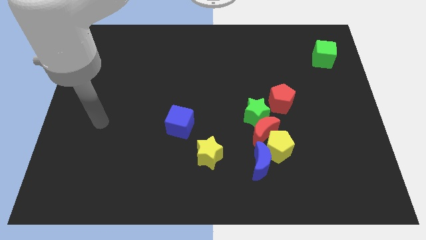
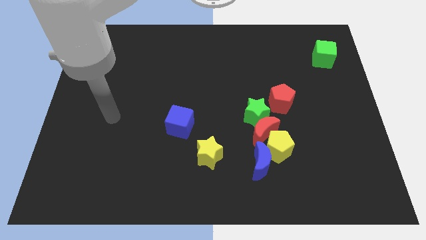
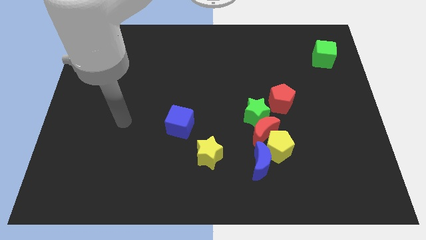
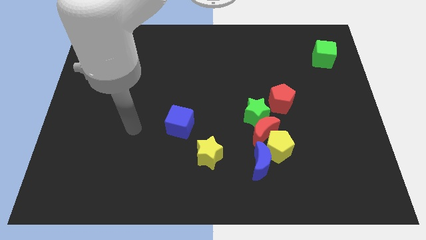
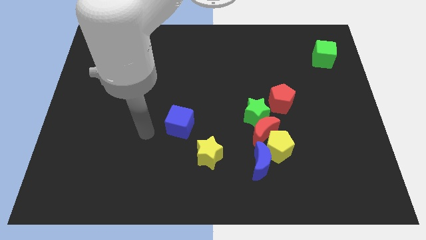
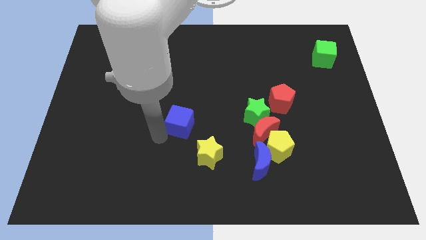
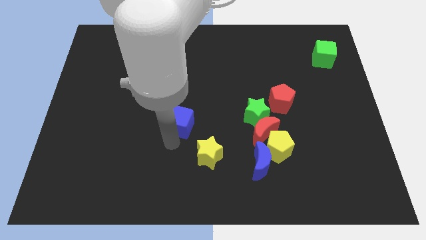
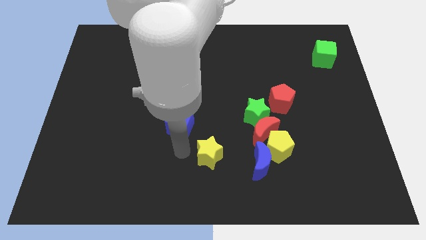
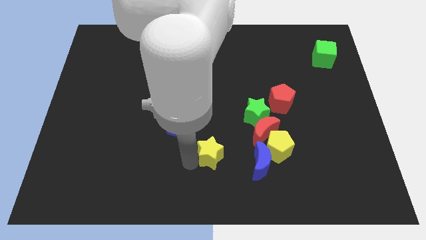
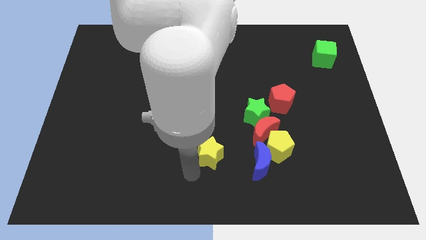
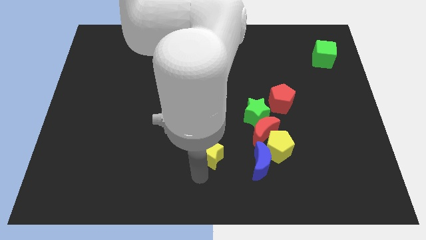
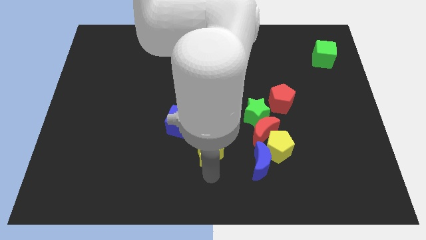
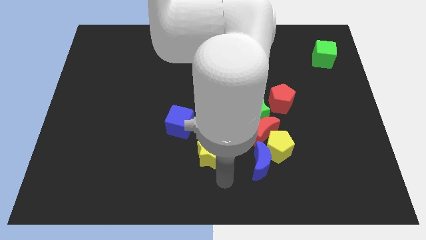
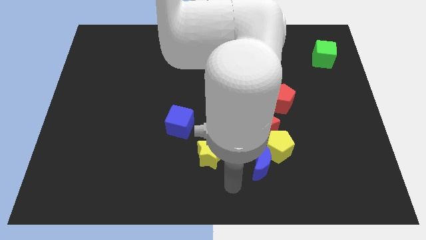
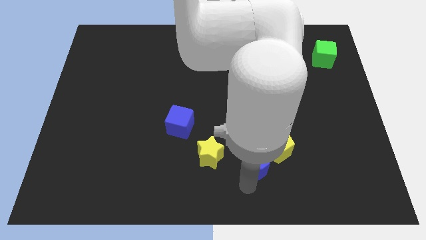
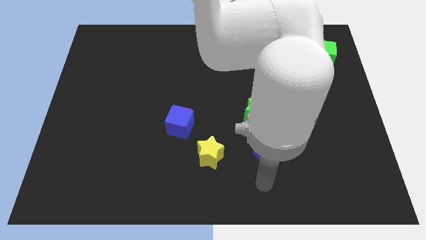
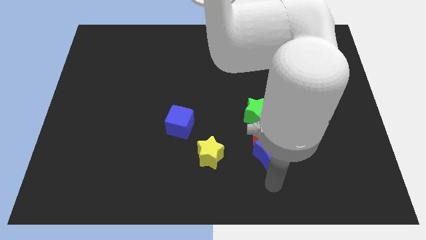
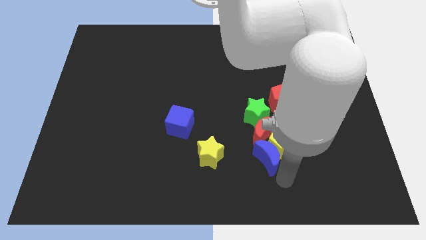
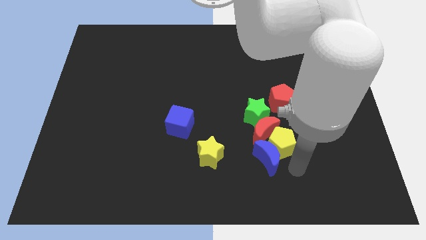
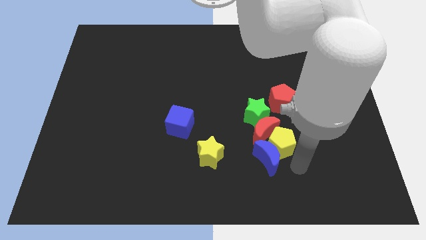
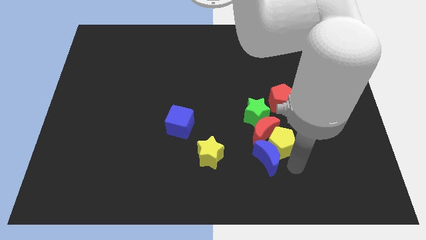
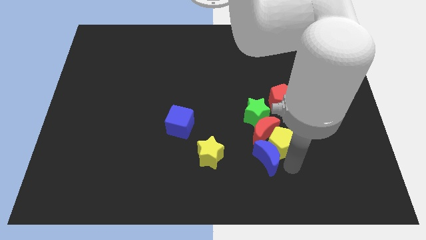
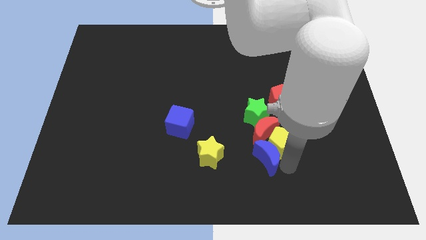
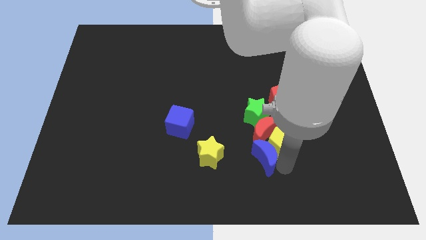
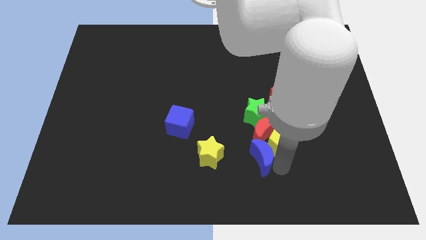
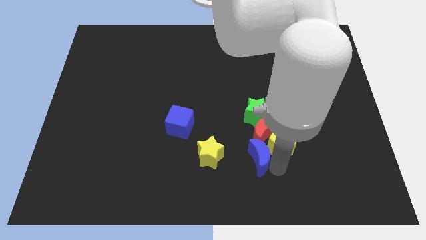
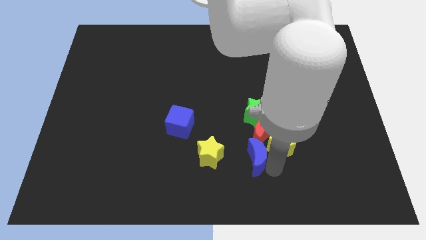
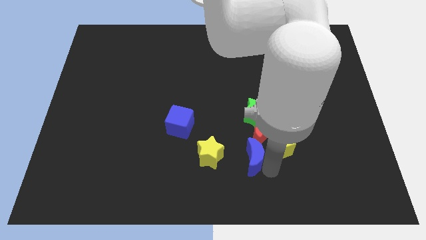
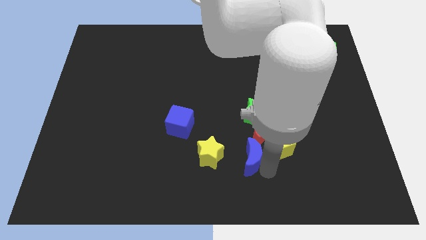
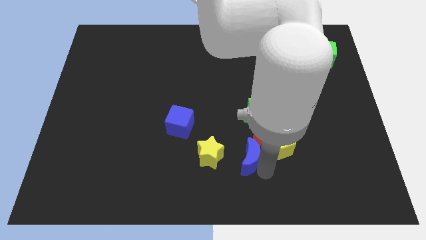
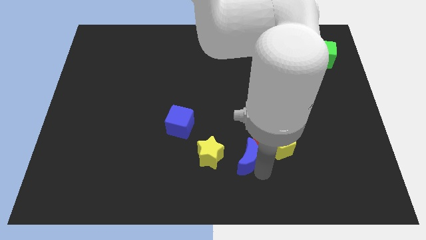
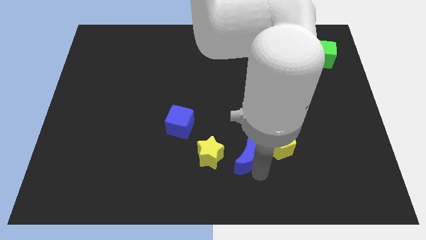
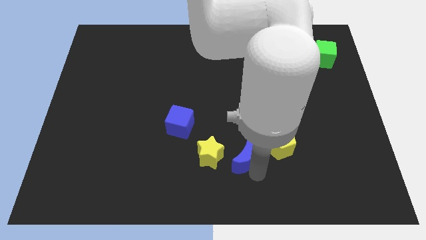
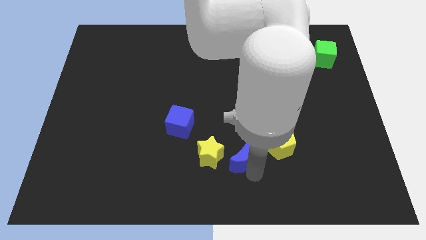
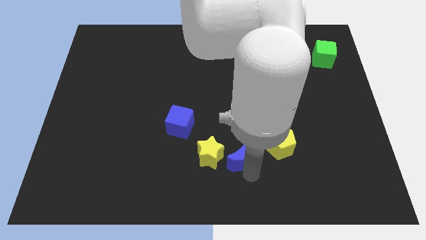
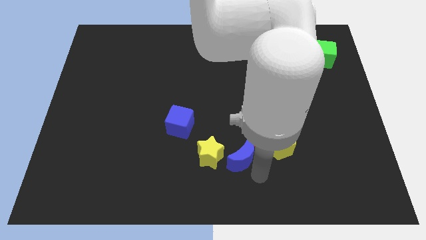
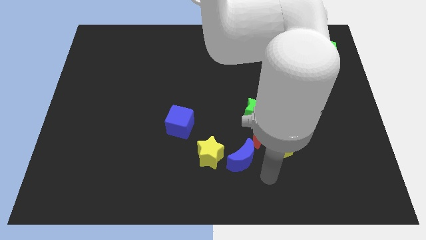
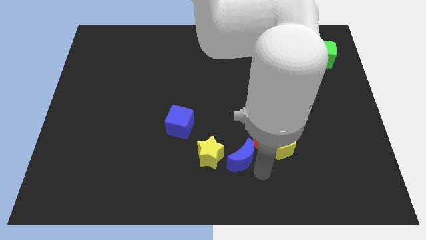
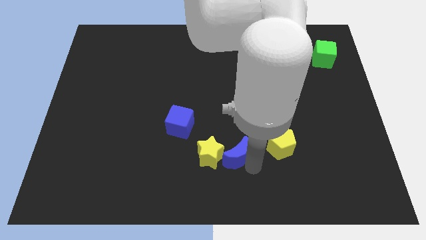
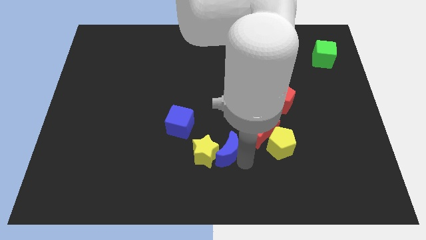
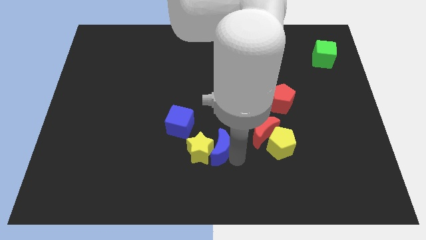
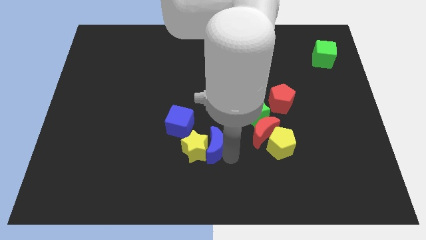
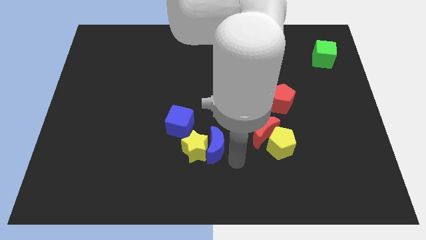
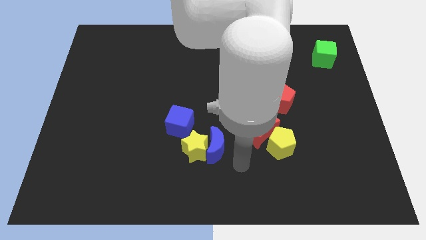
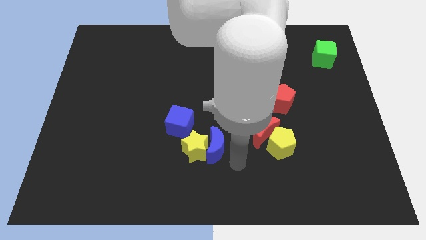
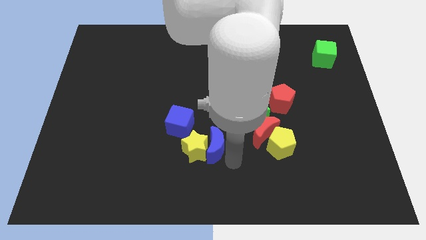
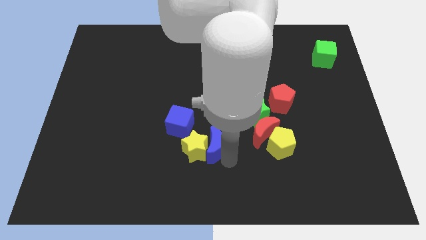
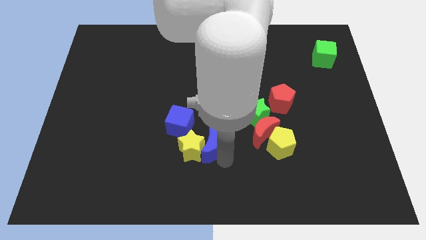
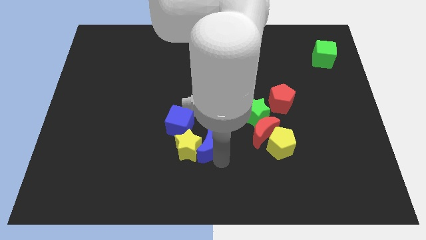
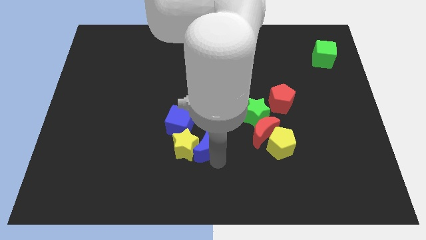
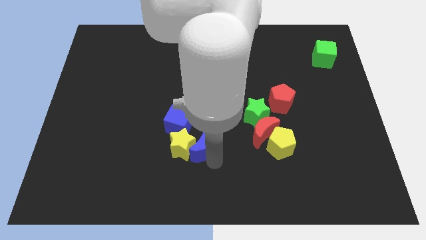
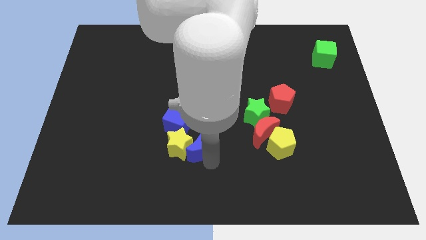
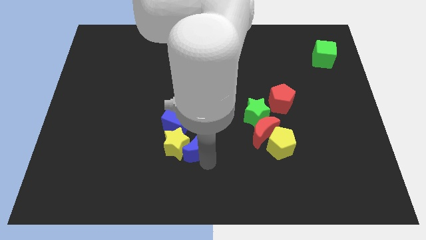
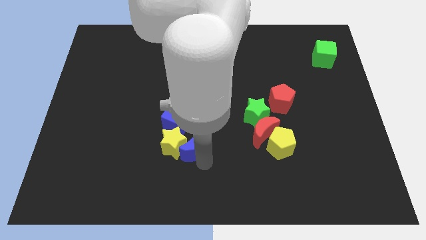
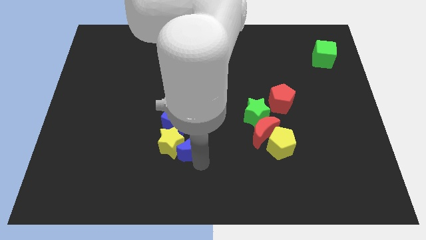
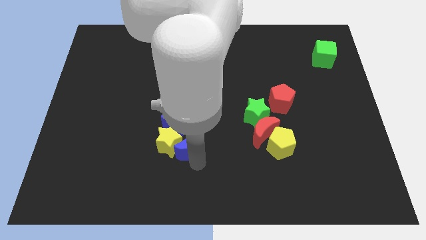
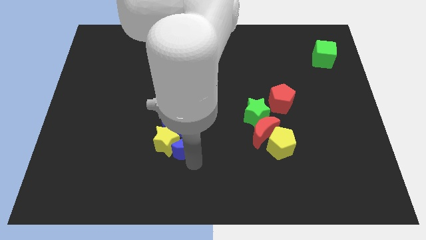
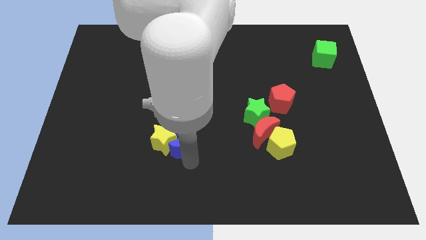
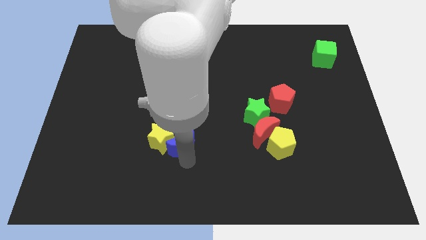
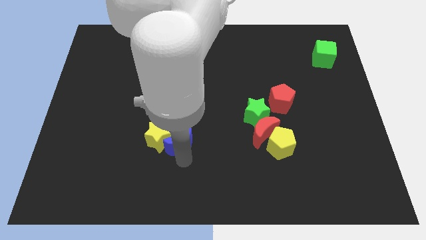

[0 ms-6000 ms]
push the blue moon to the blue cube

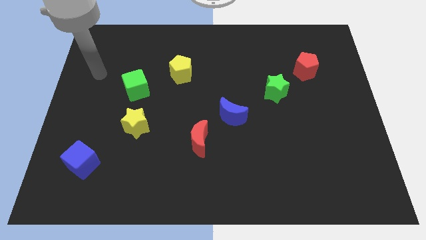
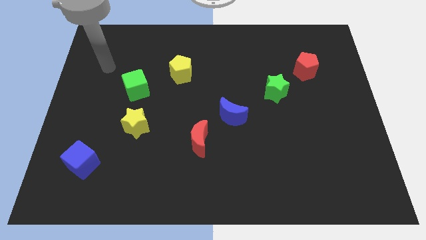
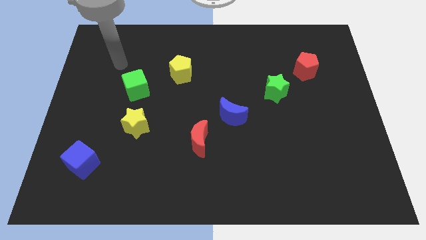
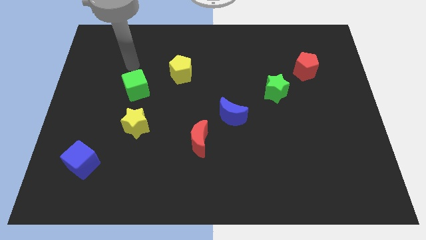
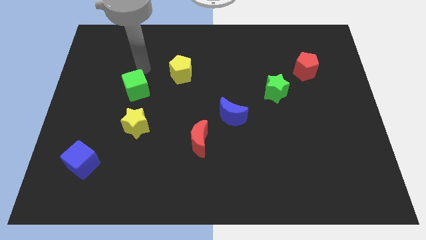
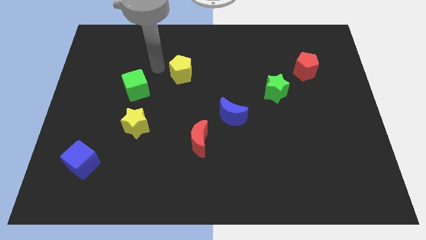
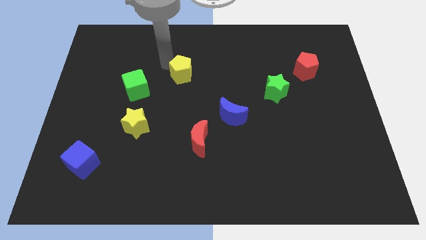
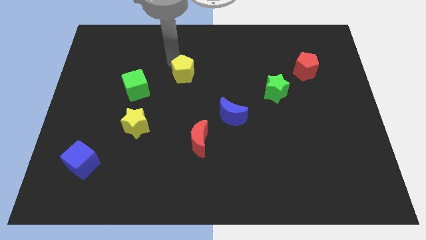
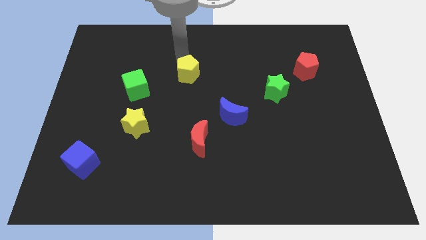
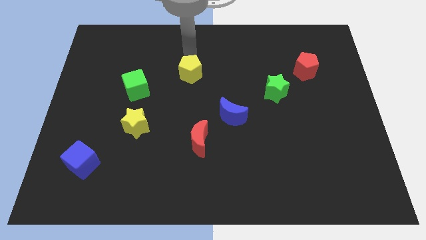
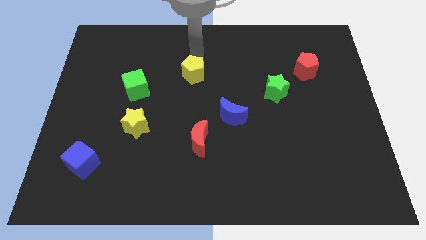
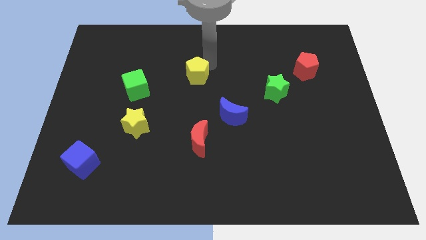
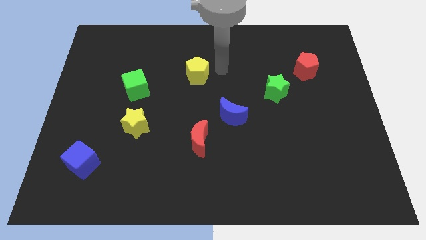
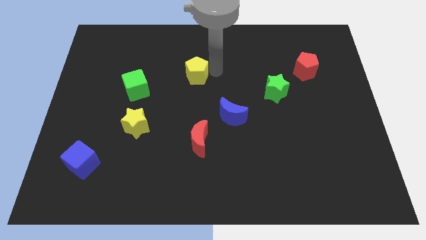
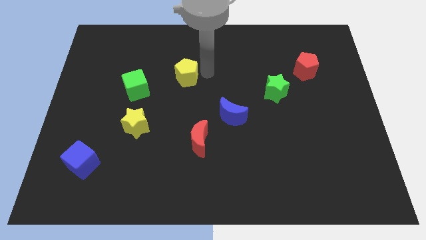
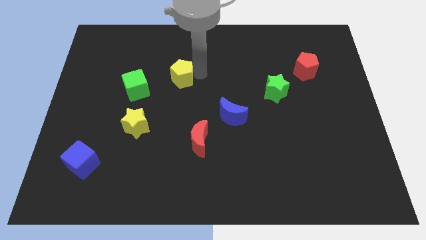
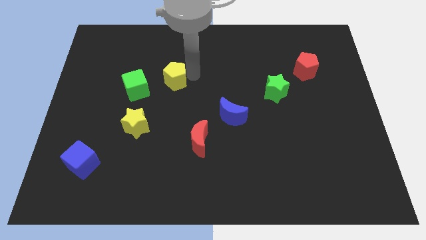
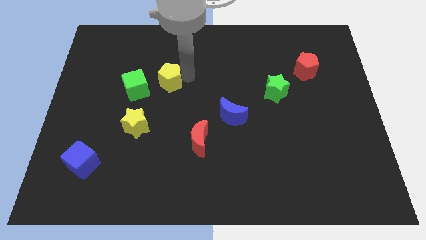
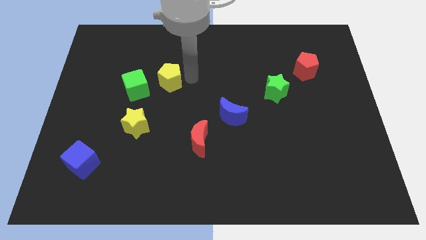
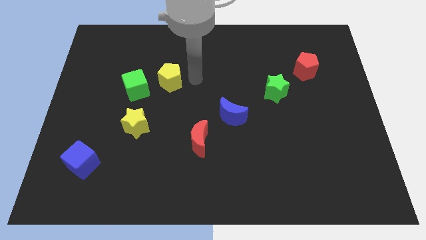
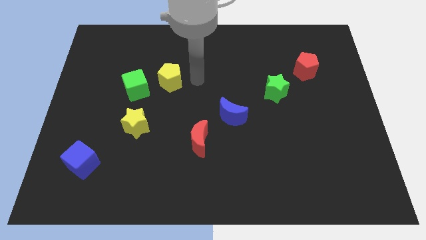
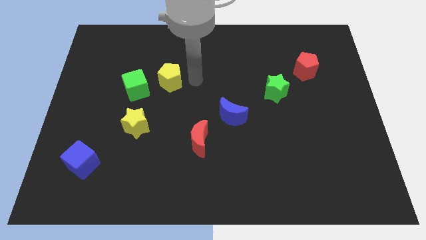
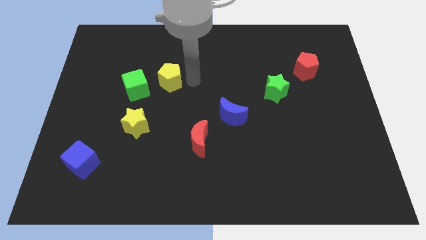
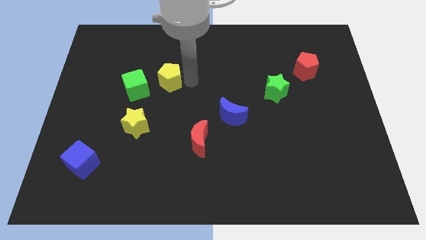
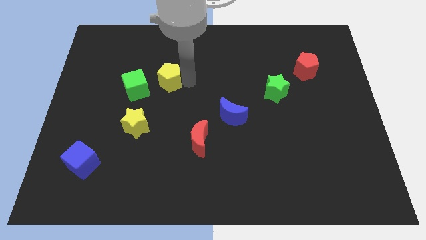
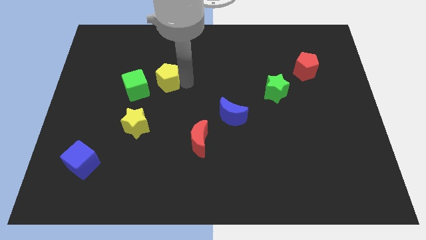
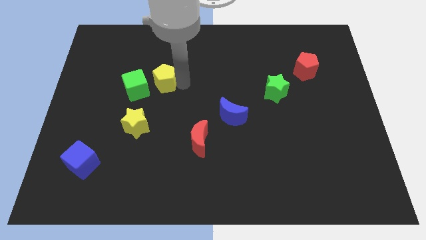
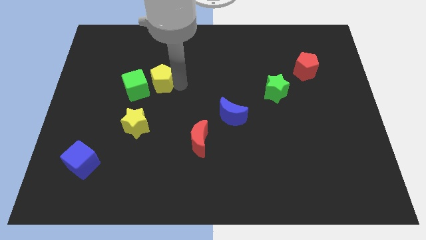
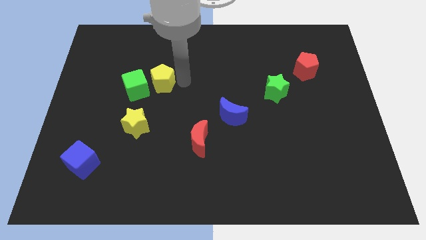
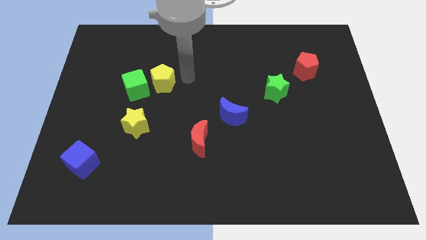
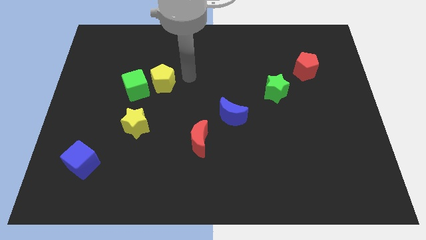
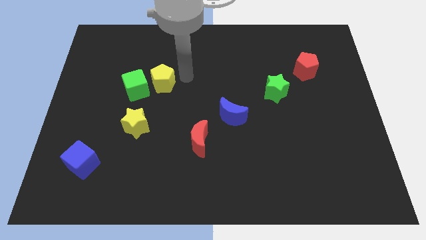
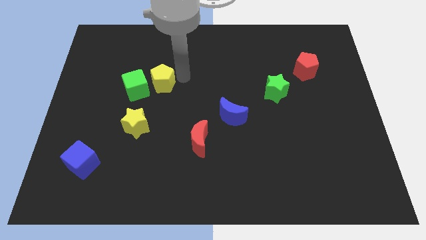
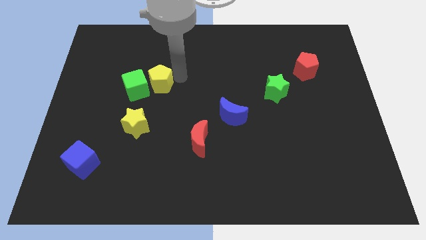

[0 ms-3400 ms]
move the yellow pentagon close to the green cube
